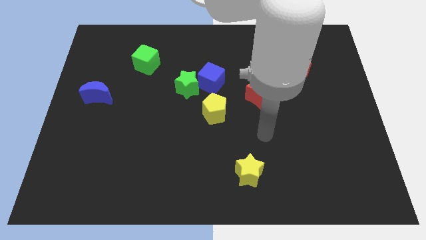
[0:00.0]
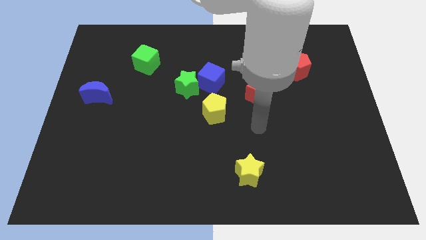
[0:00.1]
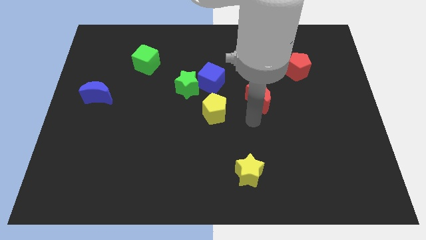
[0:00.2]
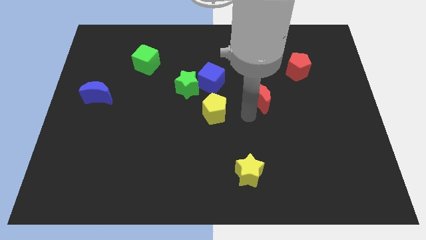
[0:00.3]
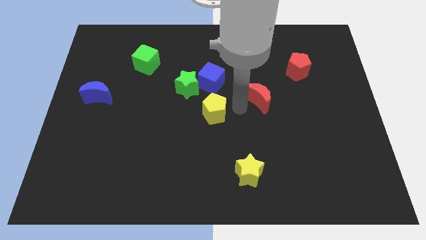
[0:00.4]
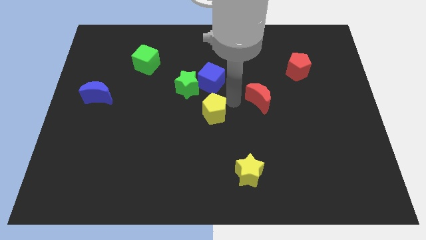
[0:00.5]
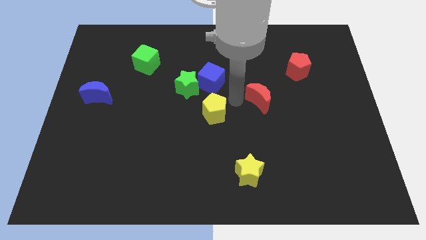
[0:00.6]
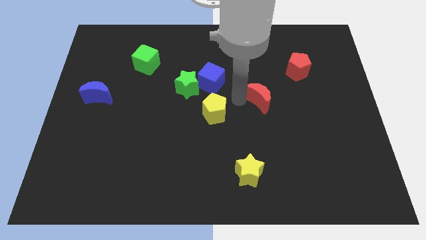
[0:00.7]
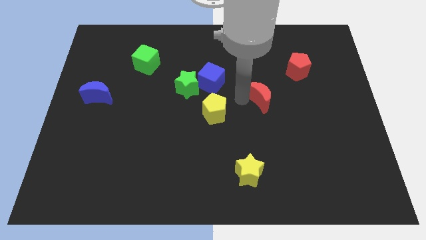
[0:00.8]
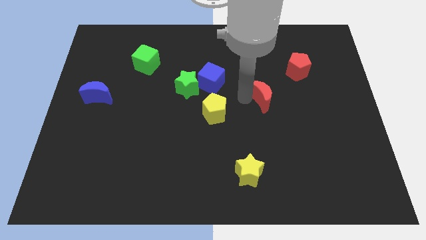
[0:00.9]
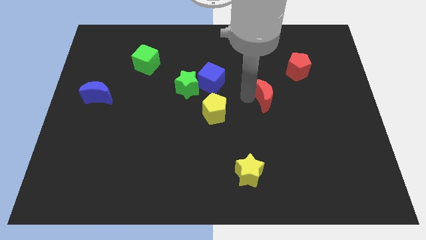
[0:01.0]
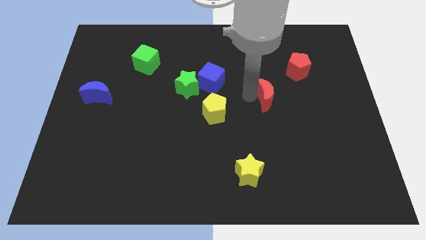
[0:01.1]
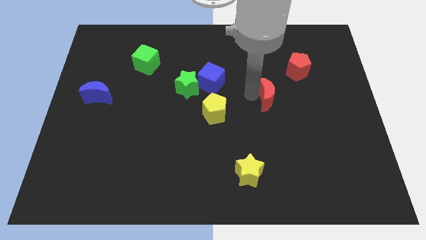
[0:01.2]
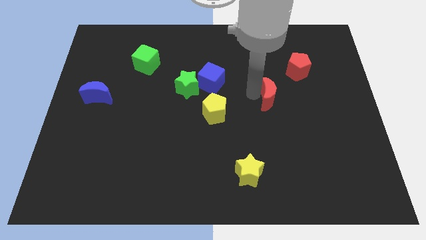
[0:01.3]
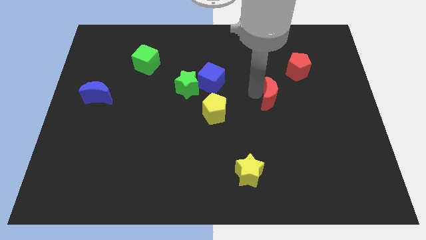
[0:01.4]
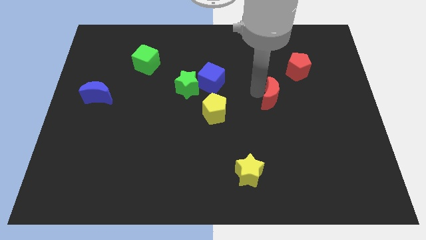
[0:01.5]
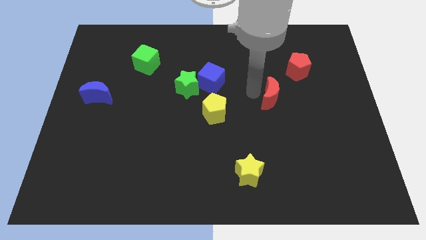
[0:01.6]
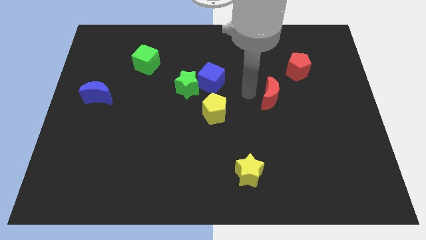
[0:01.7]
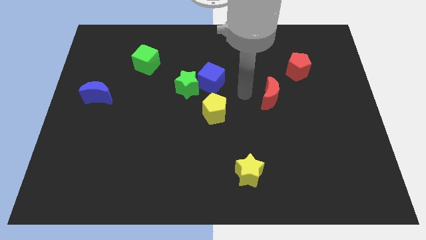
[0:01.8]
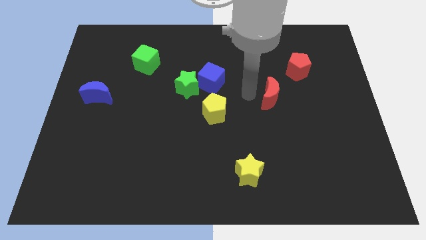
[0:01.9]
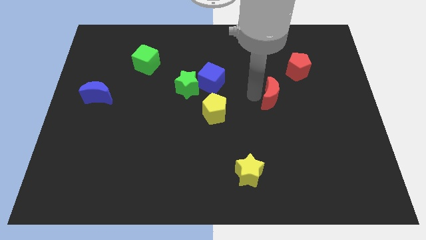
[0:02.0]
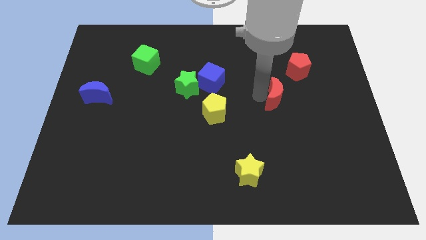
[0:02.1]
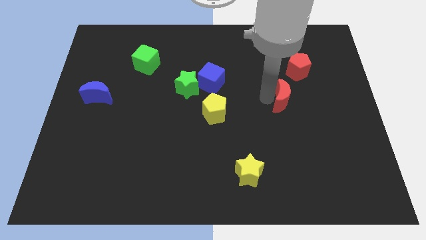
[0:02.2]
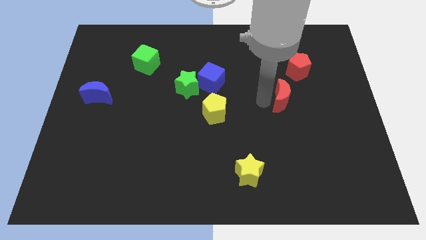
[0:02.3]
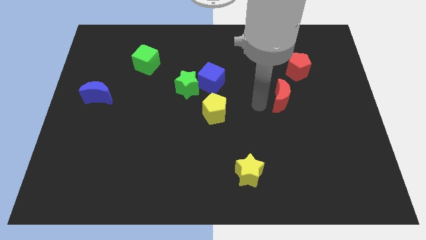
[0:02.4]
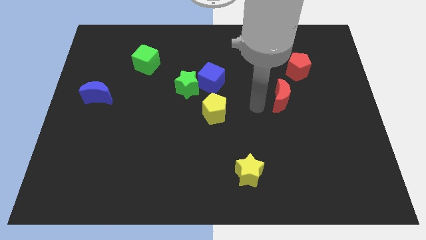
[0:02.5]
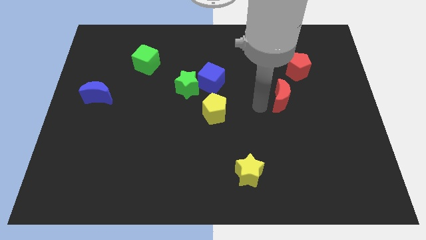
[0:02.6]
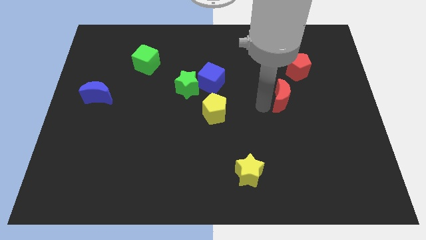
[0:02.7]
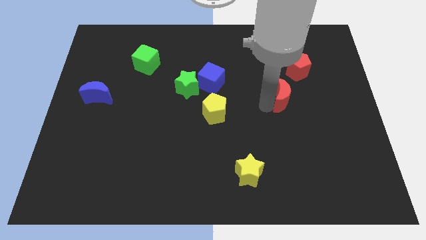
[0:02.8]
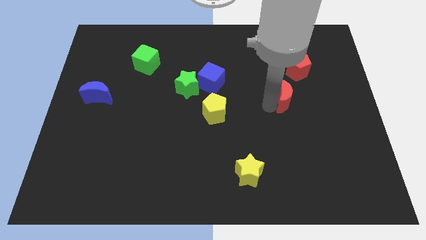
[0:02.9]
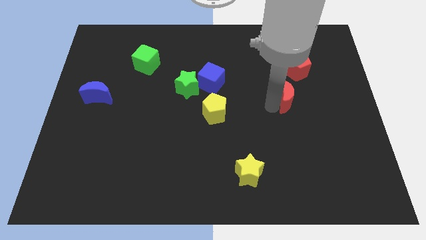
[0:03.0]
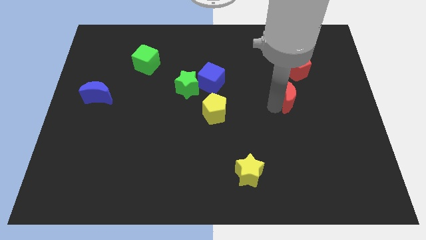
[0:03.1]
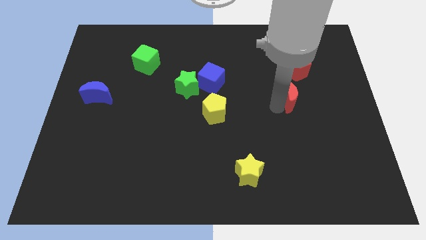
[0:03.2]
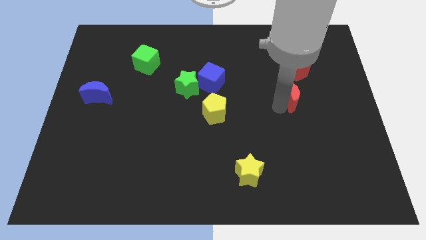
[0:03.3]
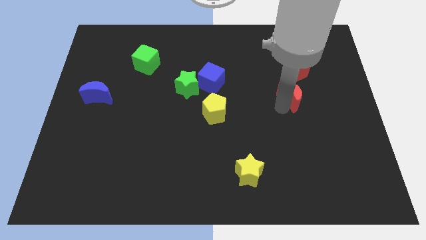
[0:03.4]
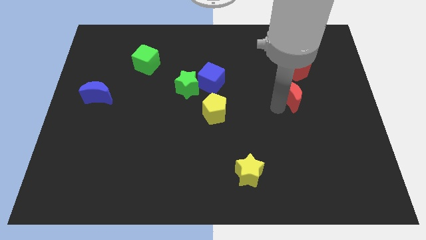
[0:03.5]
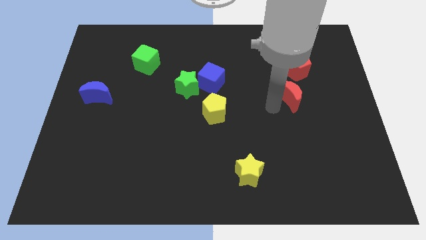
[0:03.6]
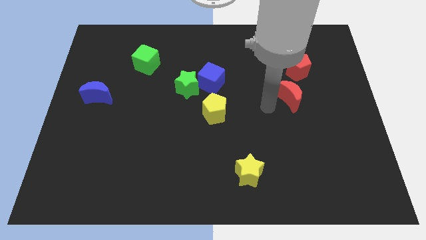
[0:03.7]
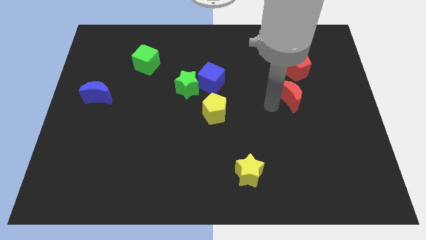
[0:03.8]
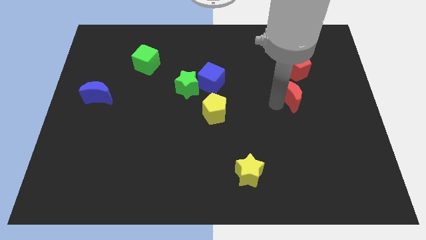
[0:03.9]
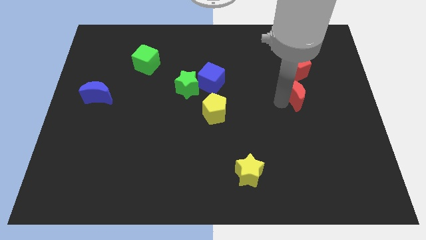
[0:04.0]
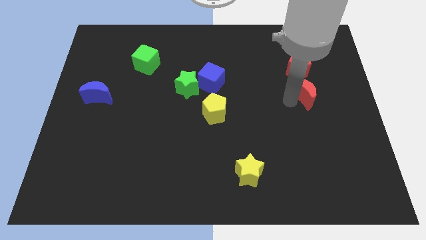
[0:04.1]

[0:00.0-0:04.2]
slightly push the red moon up and to the right diagonally

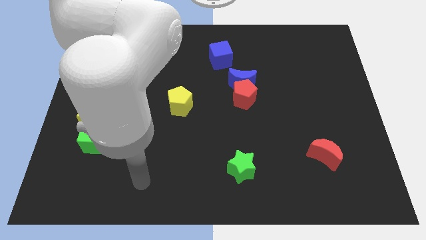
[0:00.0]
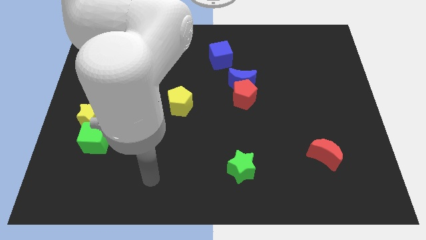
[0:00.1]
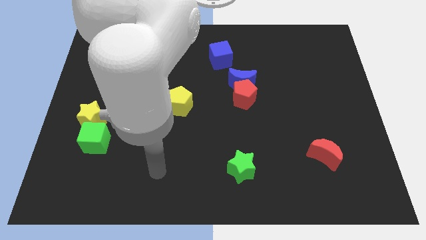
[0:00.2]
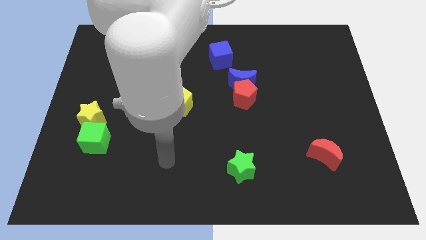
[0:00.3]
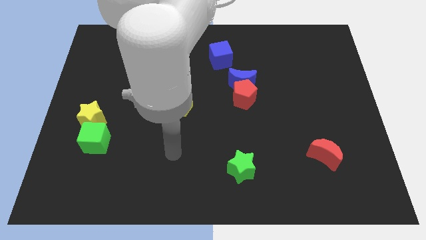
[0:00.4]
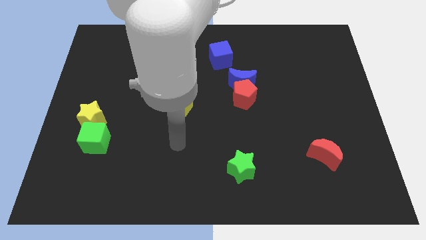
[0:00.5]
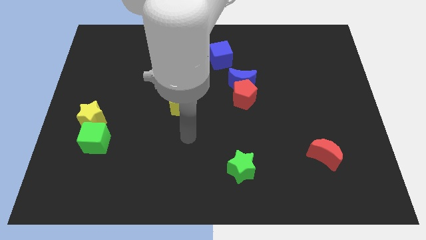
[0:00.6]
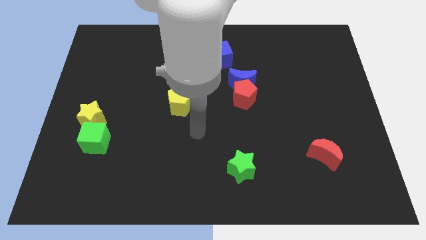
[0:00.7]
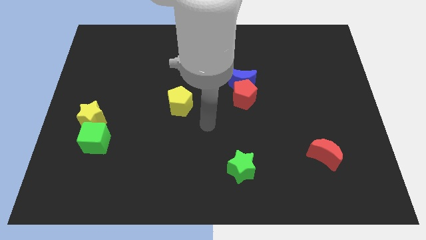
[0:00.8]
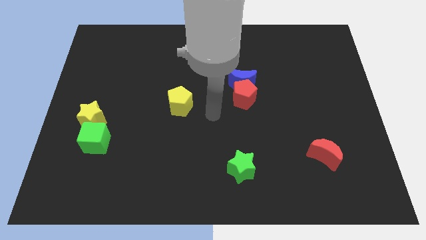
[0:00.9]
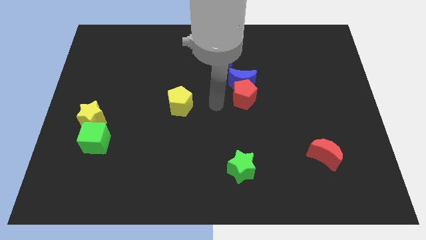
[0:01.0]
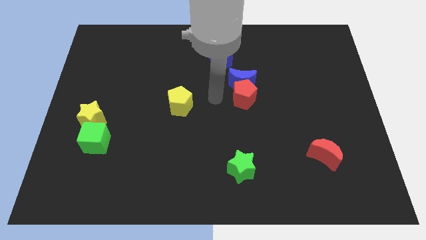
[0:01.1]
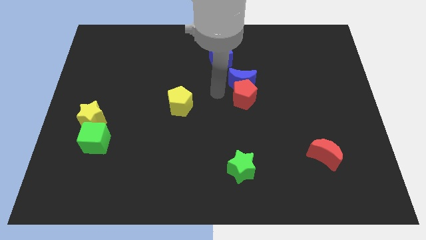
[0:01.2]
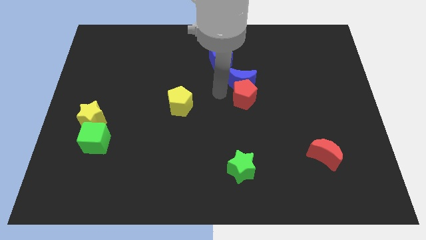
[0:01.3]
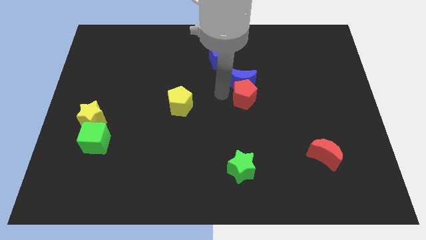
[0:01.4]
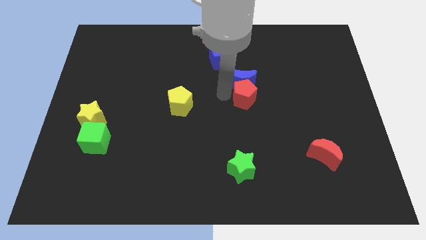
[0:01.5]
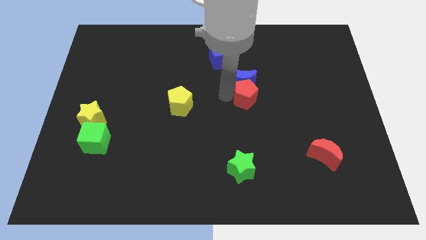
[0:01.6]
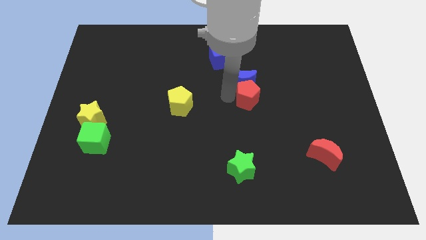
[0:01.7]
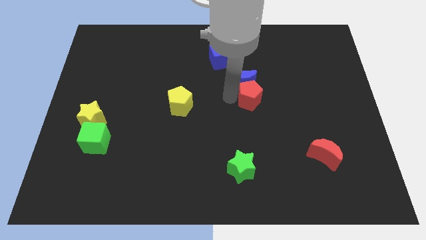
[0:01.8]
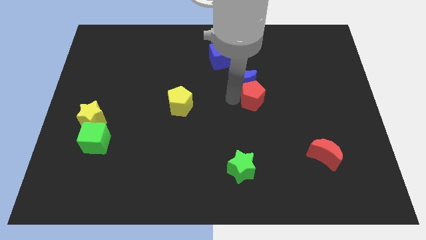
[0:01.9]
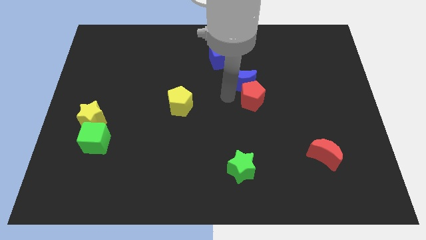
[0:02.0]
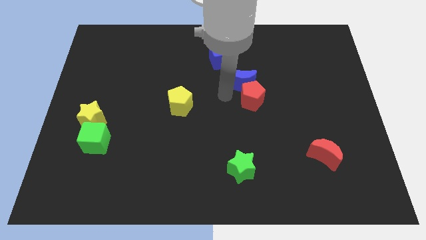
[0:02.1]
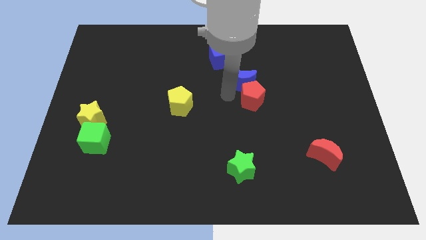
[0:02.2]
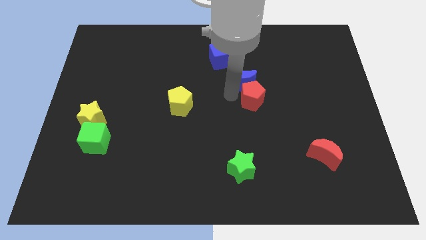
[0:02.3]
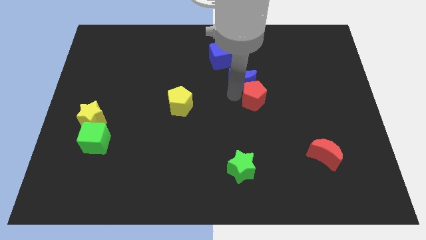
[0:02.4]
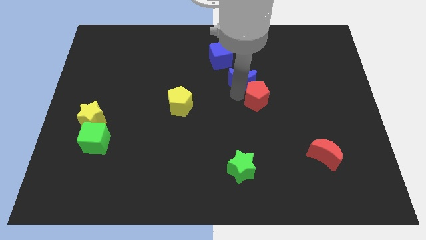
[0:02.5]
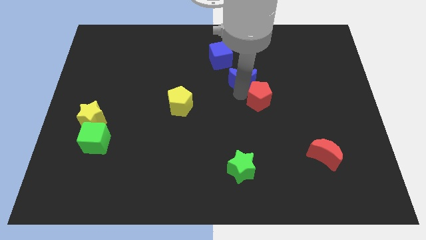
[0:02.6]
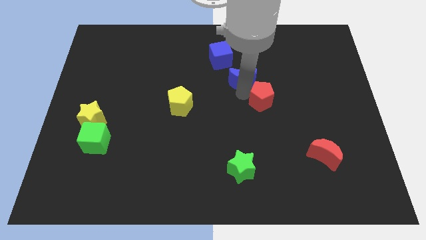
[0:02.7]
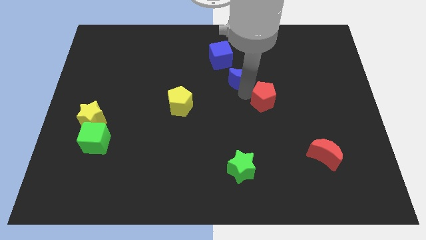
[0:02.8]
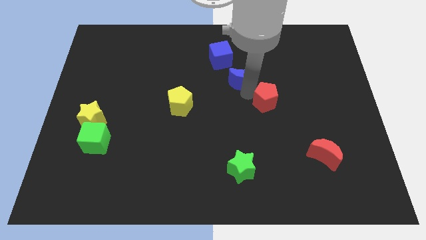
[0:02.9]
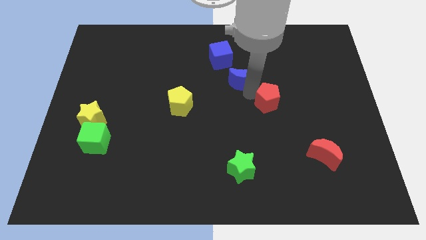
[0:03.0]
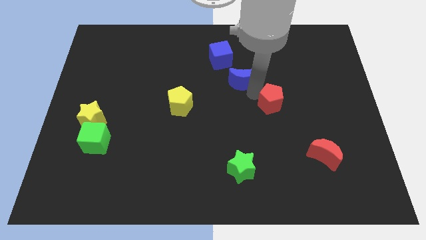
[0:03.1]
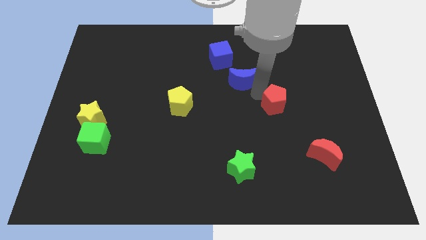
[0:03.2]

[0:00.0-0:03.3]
move the red pentagon somewhat right

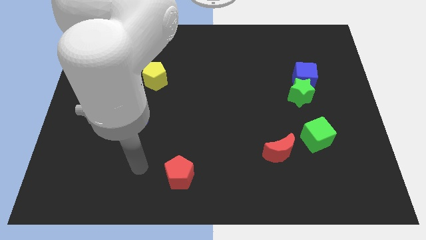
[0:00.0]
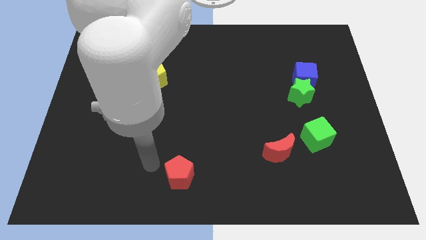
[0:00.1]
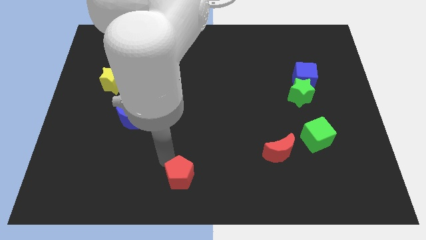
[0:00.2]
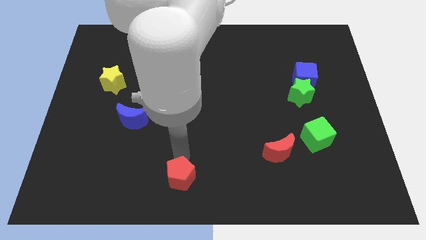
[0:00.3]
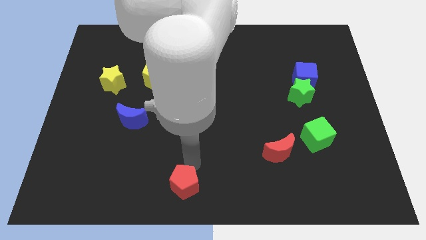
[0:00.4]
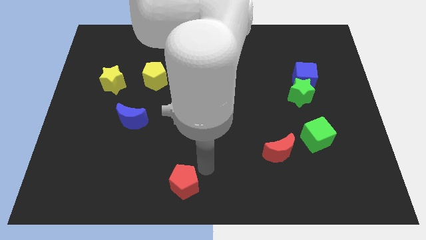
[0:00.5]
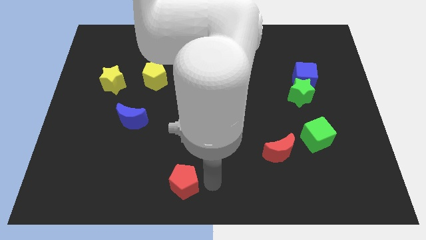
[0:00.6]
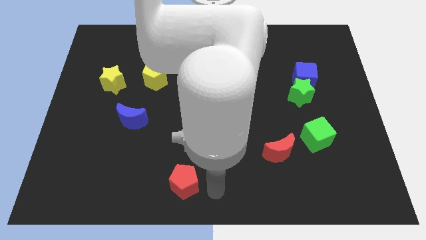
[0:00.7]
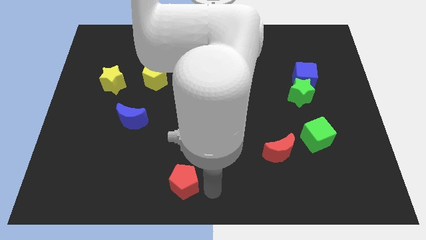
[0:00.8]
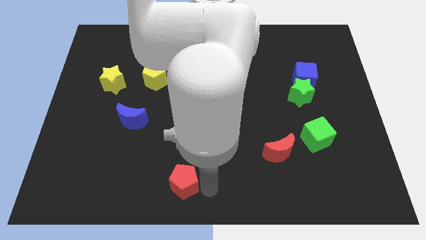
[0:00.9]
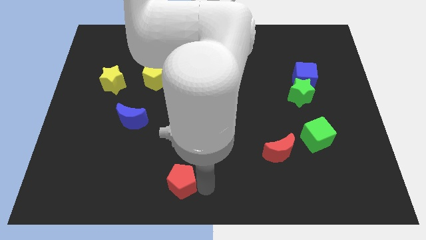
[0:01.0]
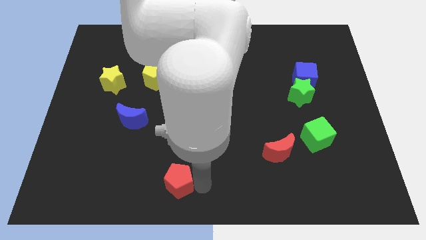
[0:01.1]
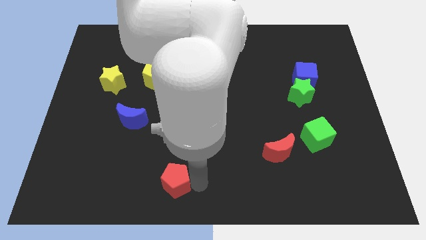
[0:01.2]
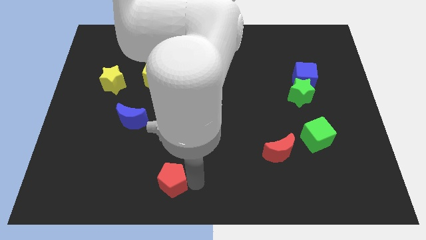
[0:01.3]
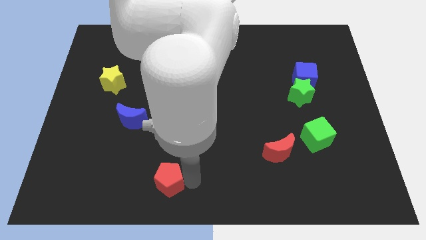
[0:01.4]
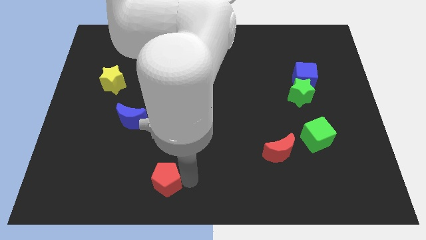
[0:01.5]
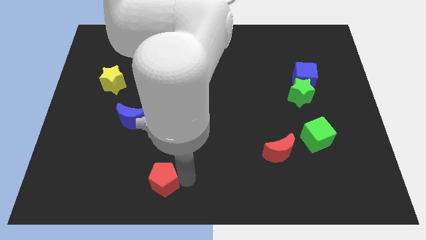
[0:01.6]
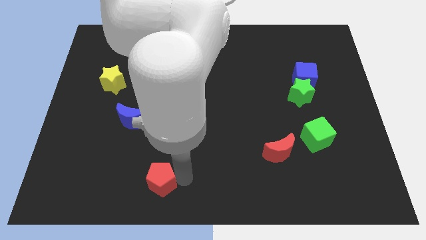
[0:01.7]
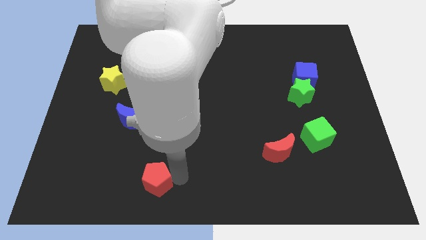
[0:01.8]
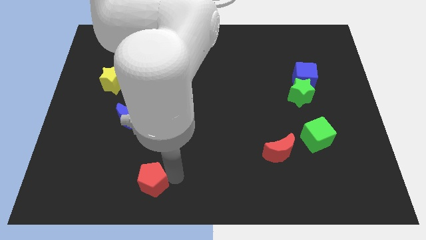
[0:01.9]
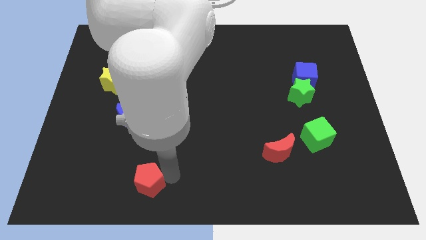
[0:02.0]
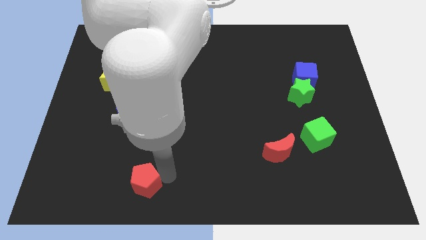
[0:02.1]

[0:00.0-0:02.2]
slightly push the red pentagon to the left
